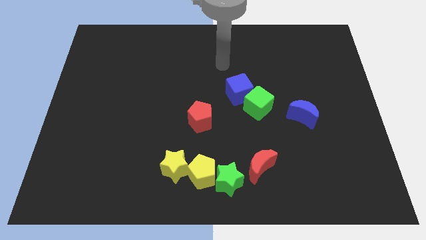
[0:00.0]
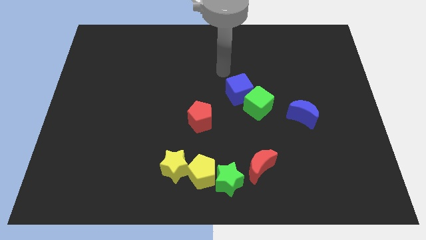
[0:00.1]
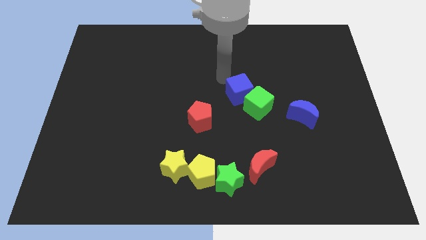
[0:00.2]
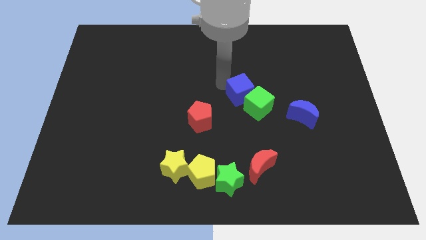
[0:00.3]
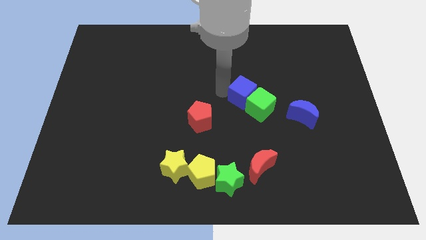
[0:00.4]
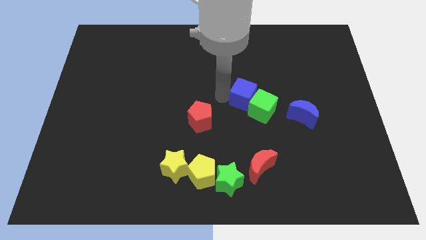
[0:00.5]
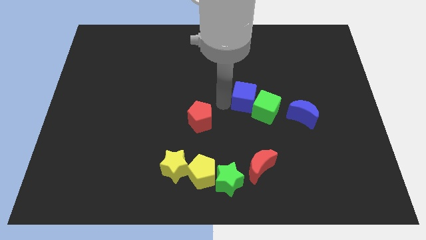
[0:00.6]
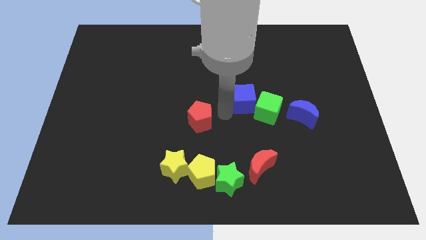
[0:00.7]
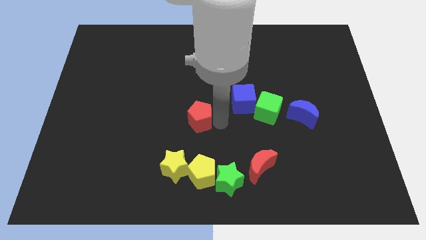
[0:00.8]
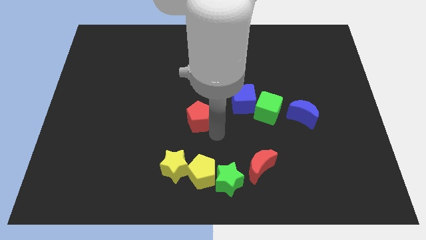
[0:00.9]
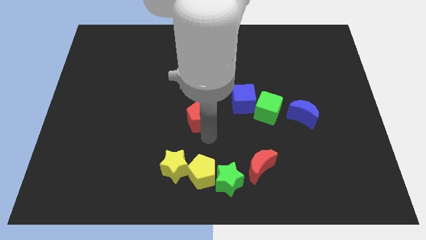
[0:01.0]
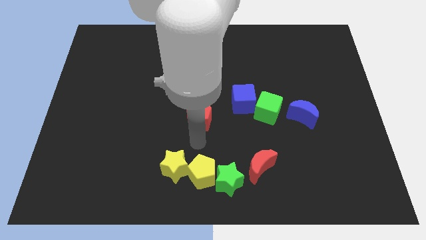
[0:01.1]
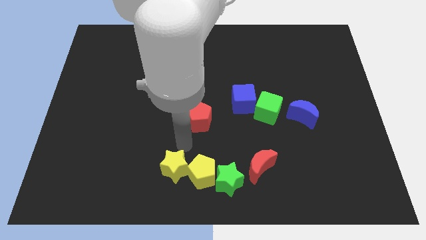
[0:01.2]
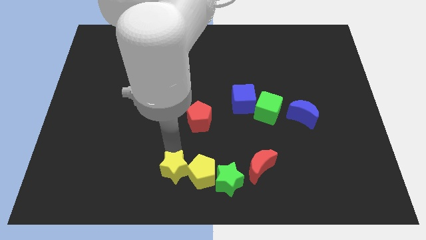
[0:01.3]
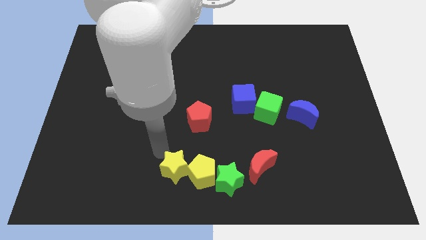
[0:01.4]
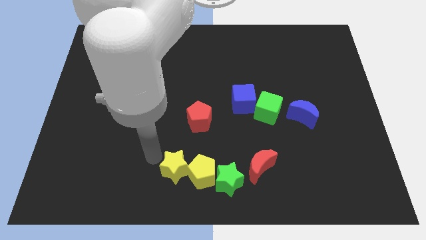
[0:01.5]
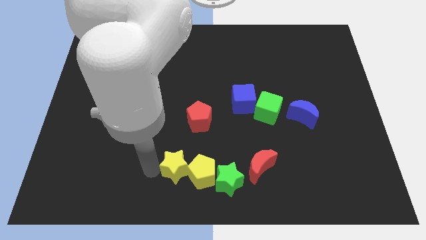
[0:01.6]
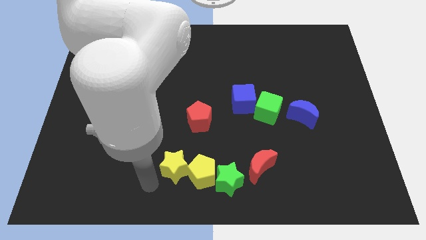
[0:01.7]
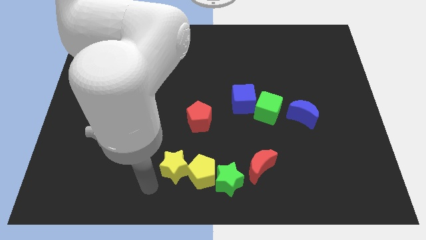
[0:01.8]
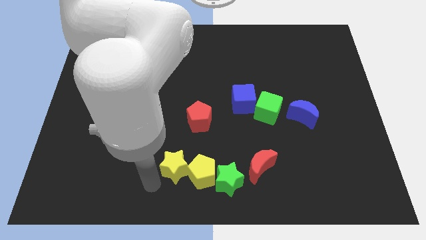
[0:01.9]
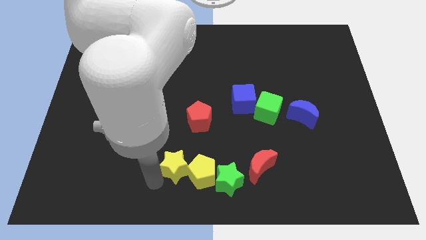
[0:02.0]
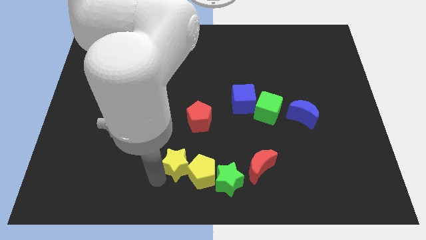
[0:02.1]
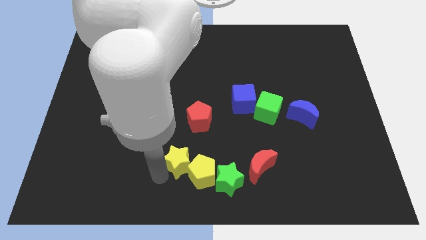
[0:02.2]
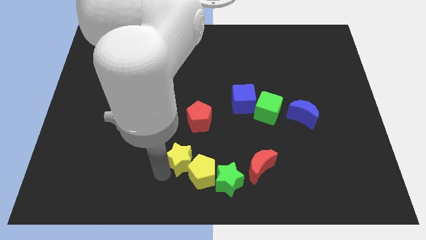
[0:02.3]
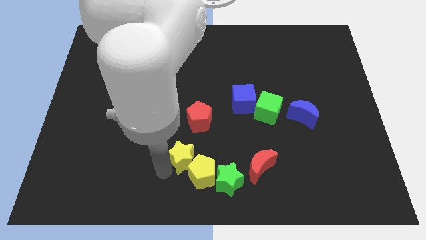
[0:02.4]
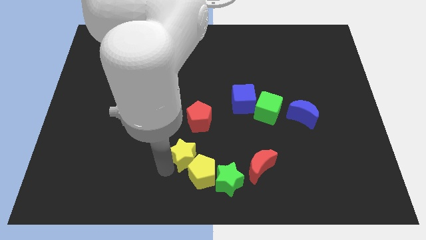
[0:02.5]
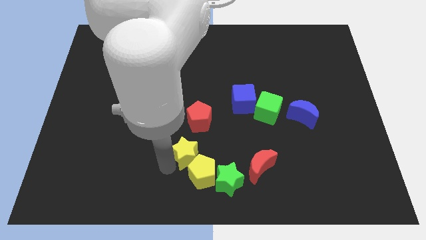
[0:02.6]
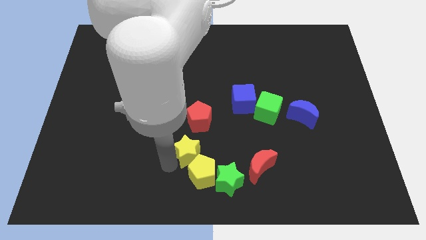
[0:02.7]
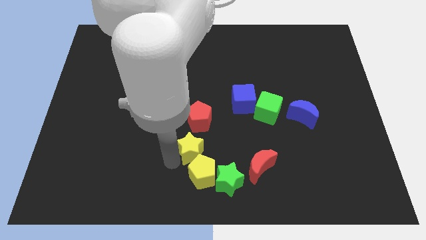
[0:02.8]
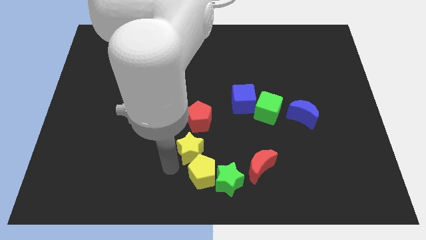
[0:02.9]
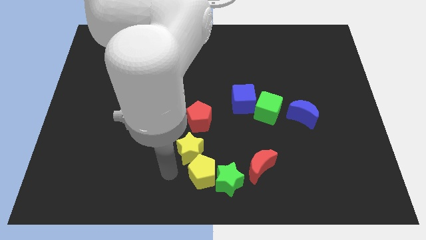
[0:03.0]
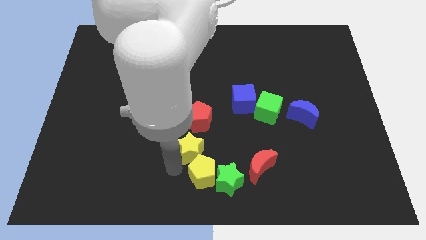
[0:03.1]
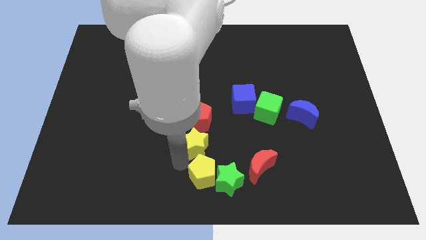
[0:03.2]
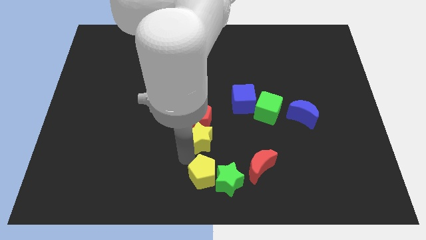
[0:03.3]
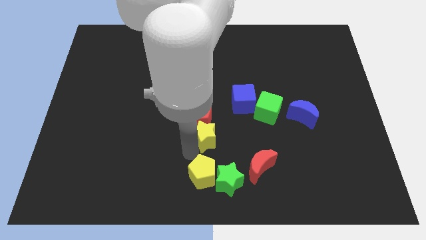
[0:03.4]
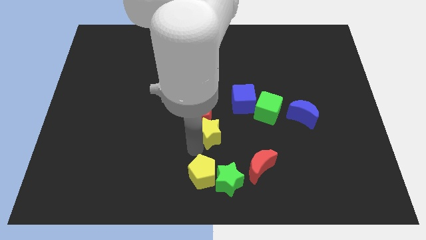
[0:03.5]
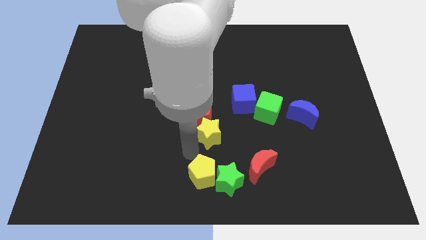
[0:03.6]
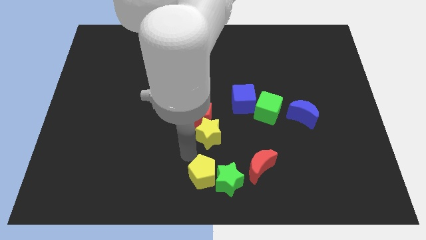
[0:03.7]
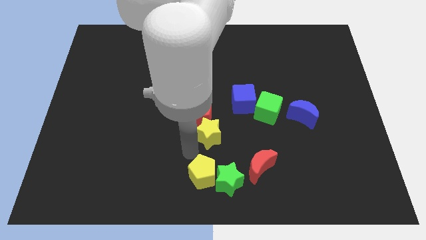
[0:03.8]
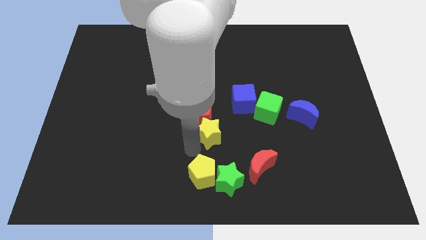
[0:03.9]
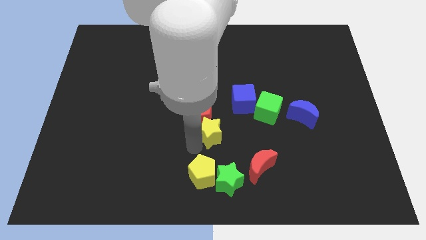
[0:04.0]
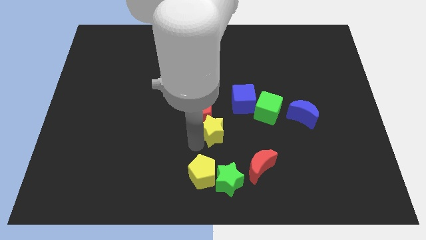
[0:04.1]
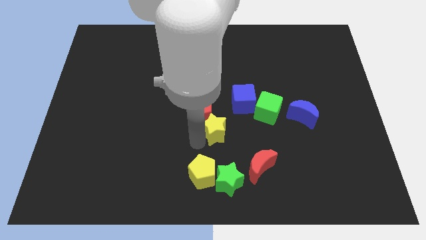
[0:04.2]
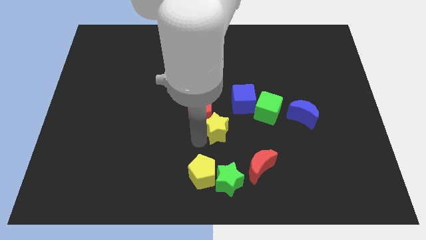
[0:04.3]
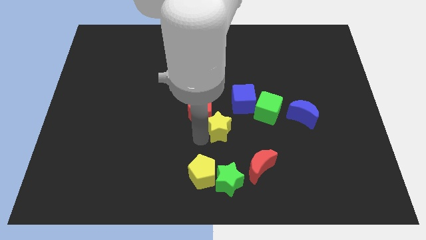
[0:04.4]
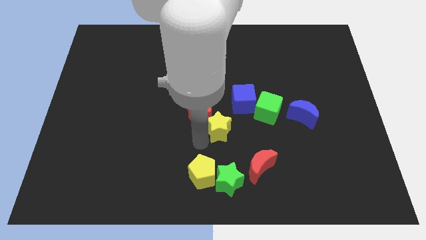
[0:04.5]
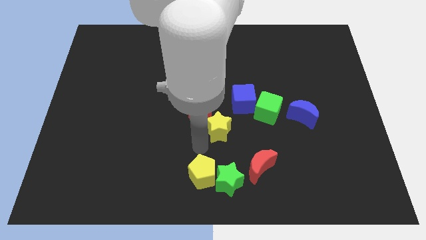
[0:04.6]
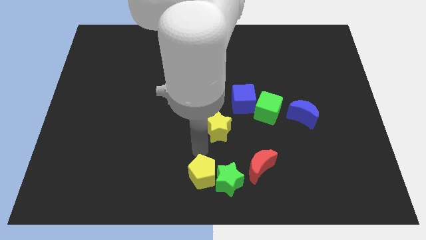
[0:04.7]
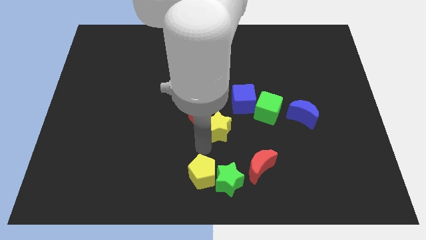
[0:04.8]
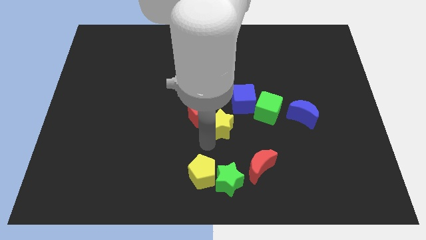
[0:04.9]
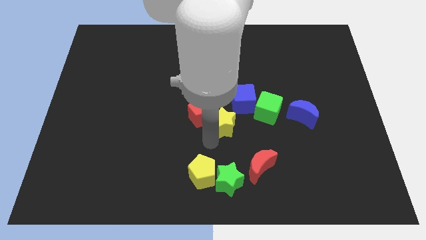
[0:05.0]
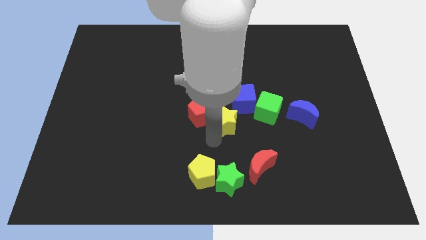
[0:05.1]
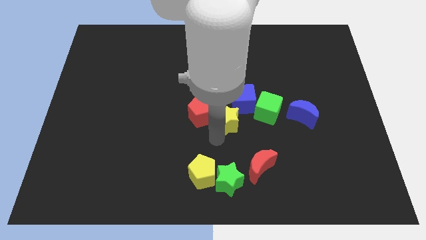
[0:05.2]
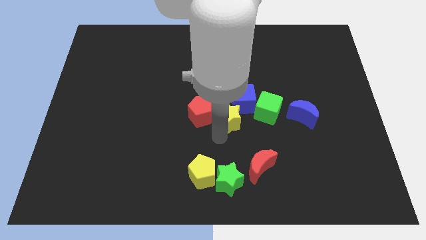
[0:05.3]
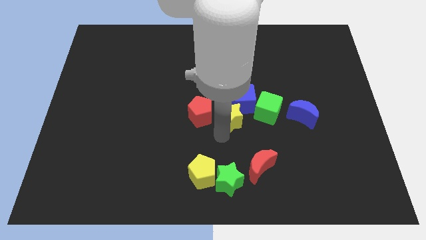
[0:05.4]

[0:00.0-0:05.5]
move the yellow star towards the blue cube

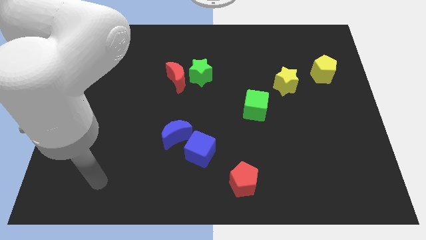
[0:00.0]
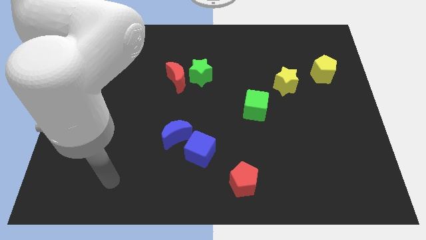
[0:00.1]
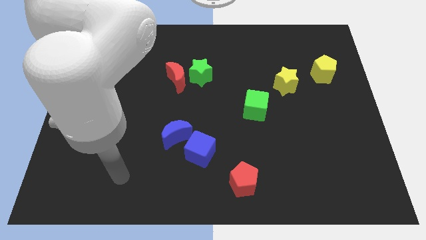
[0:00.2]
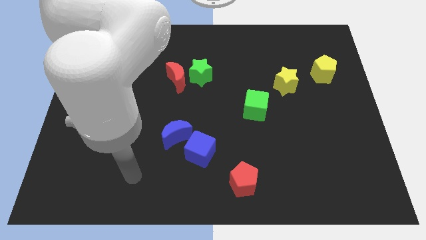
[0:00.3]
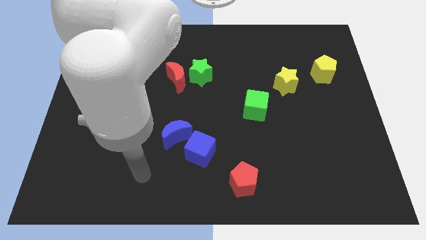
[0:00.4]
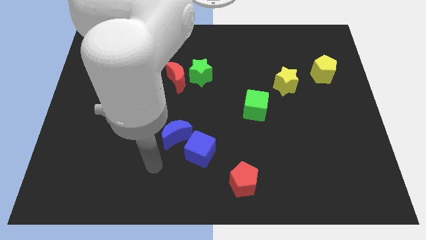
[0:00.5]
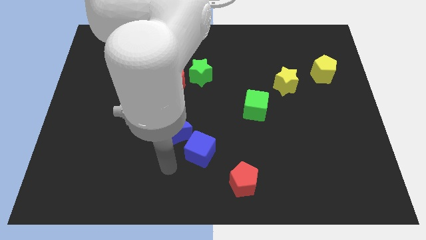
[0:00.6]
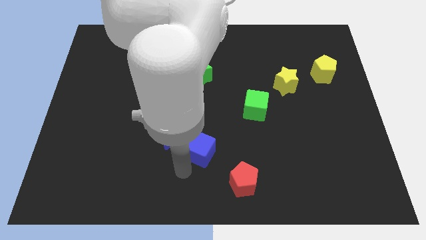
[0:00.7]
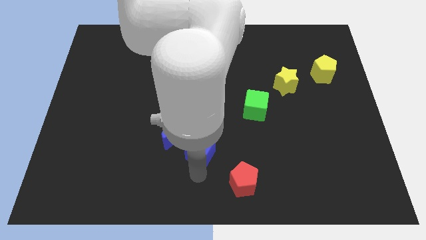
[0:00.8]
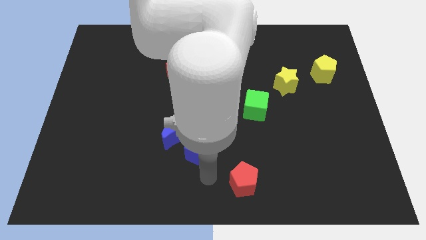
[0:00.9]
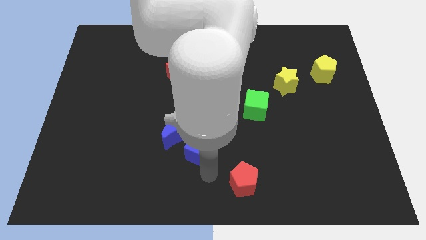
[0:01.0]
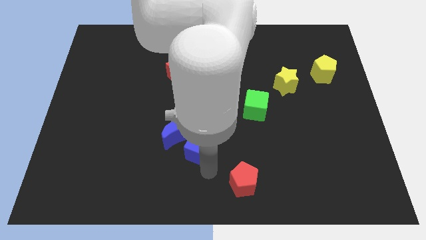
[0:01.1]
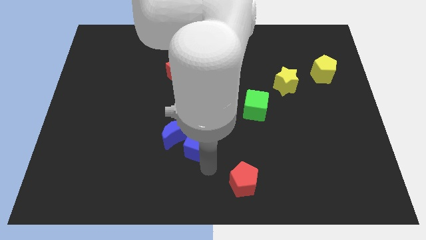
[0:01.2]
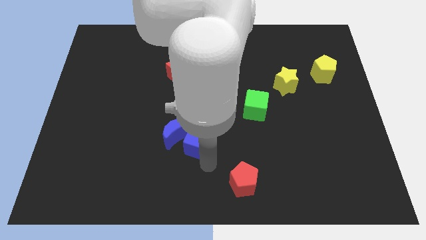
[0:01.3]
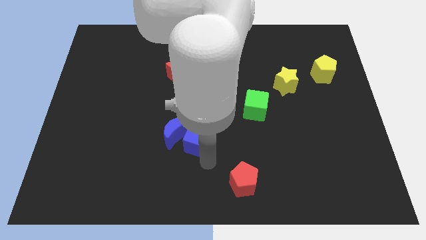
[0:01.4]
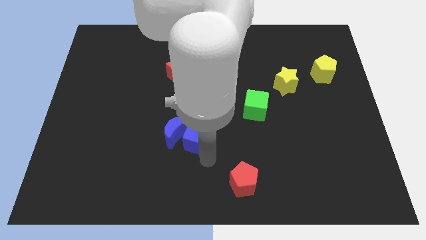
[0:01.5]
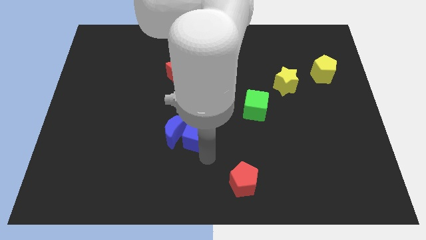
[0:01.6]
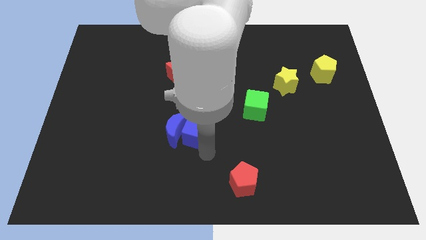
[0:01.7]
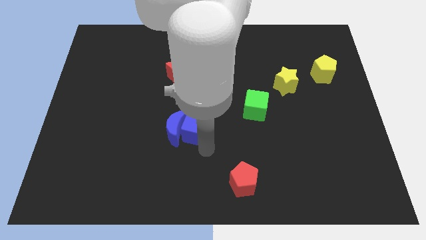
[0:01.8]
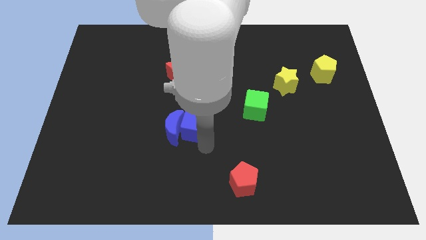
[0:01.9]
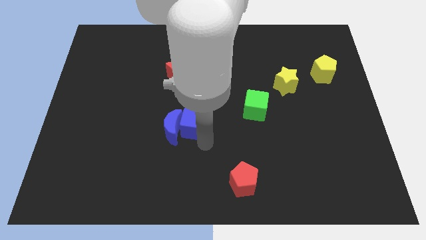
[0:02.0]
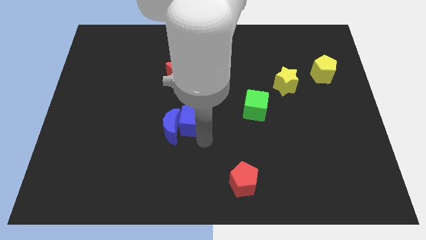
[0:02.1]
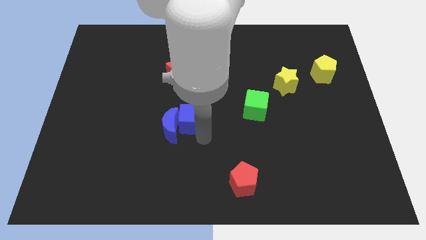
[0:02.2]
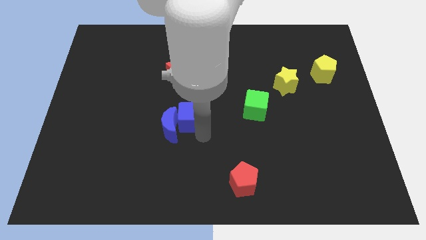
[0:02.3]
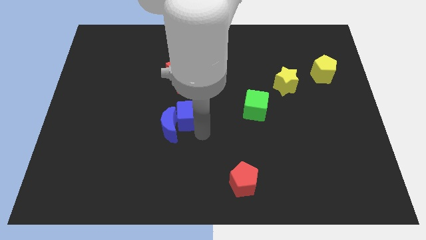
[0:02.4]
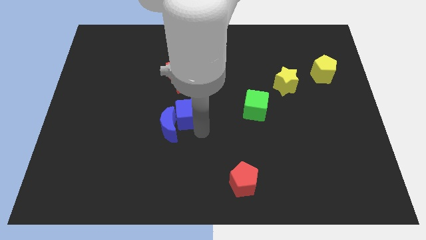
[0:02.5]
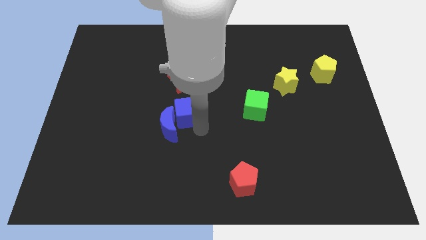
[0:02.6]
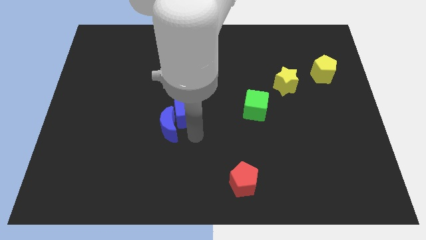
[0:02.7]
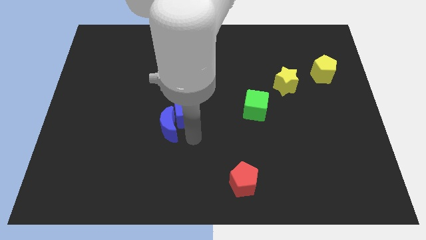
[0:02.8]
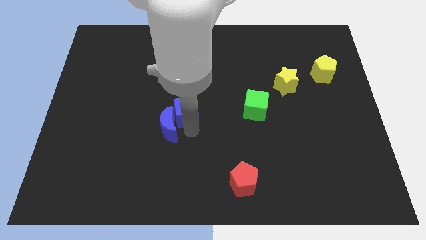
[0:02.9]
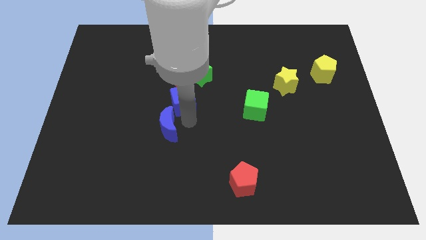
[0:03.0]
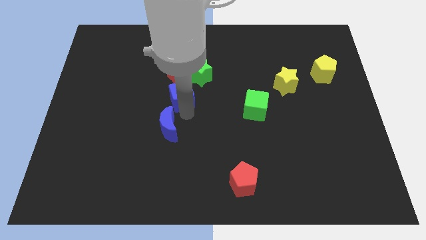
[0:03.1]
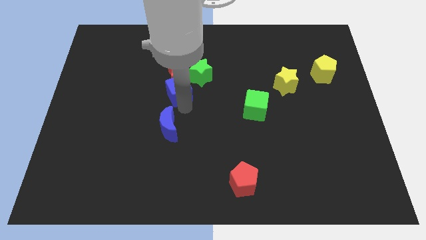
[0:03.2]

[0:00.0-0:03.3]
move the blue cube to the red moon
